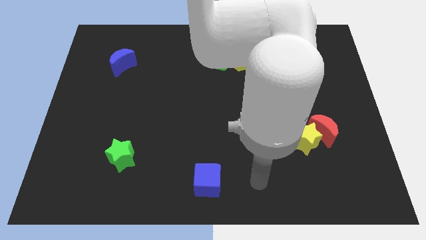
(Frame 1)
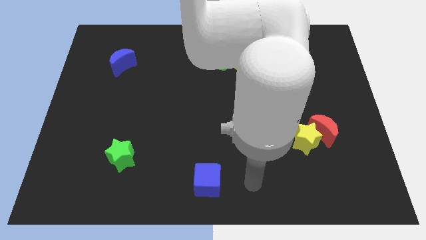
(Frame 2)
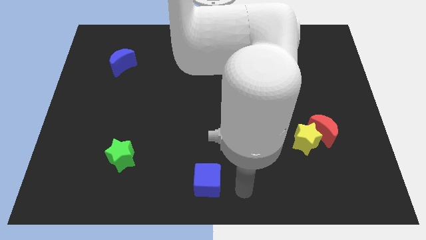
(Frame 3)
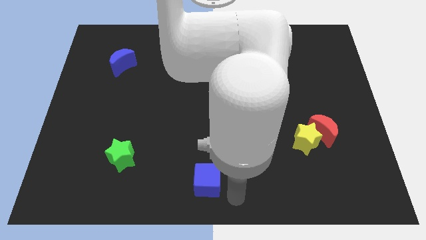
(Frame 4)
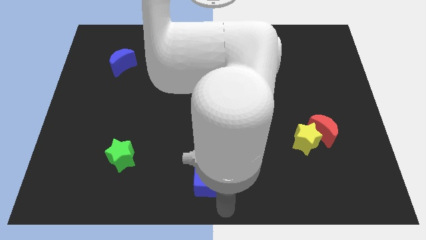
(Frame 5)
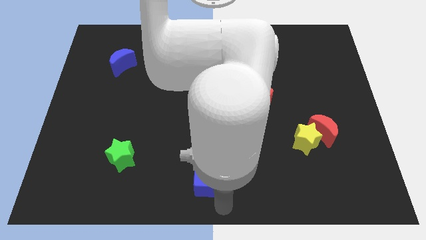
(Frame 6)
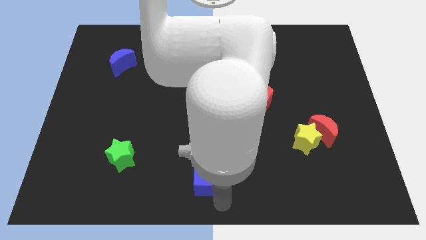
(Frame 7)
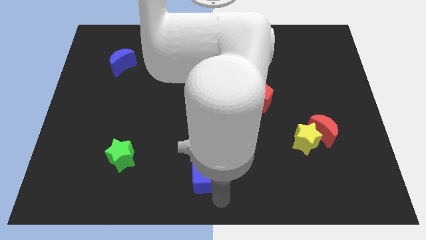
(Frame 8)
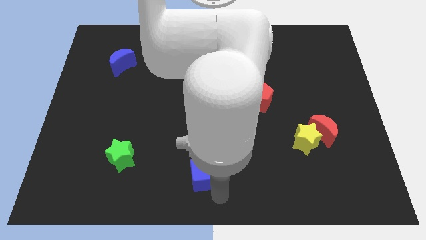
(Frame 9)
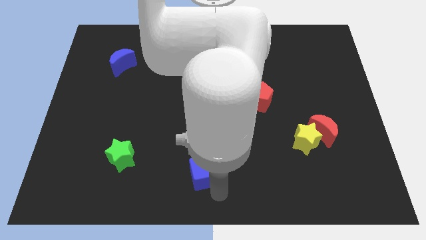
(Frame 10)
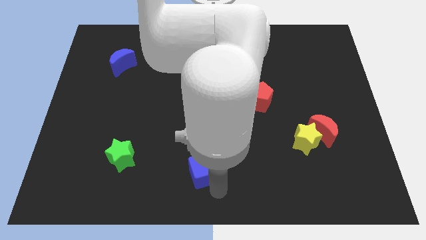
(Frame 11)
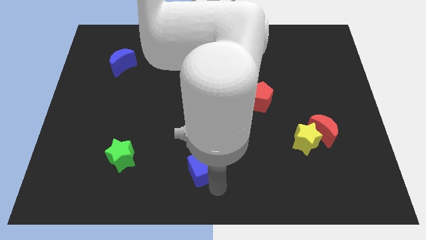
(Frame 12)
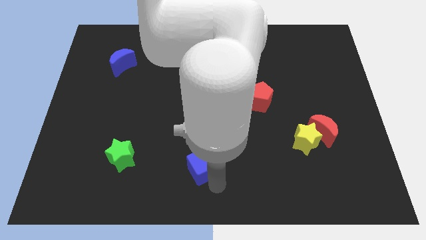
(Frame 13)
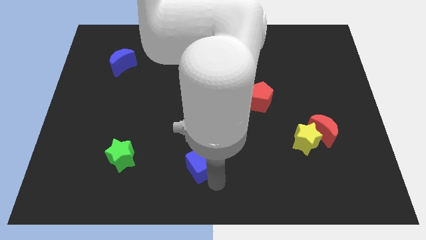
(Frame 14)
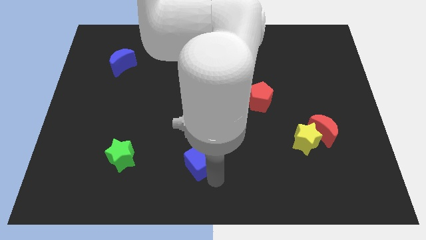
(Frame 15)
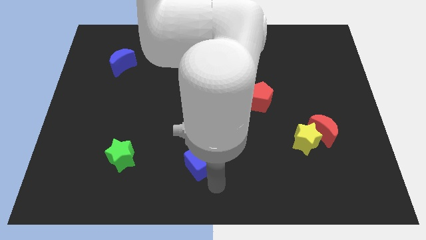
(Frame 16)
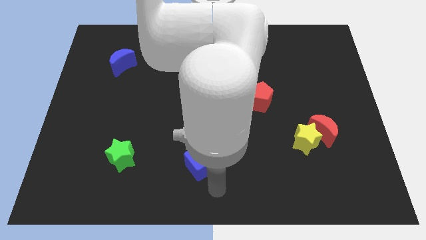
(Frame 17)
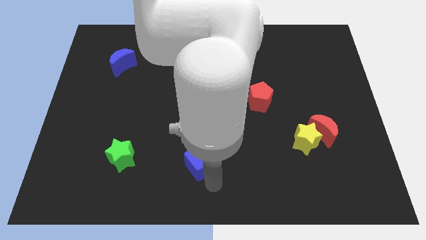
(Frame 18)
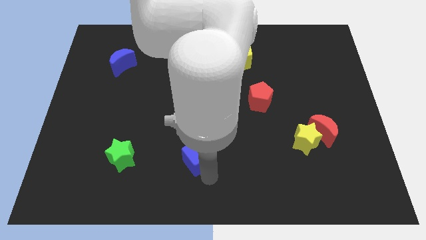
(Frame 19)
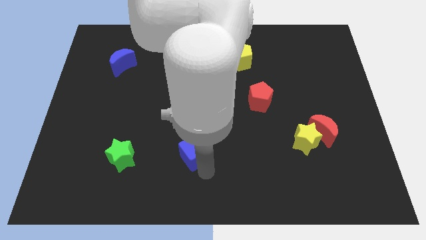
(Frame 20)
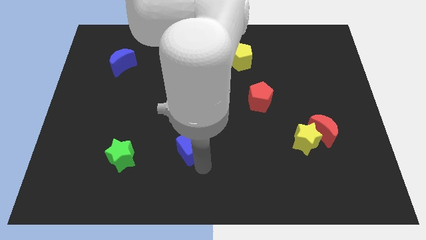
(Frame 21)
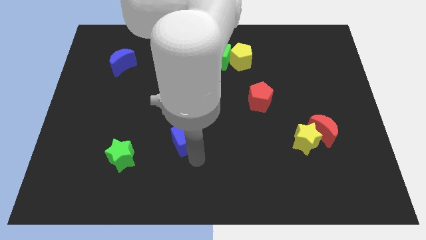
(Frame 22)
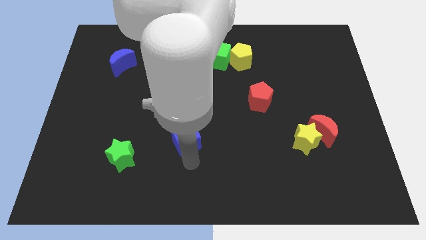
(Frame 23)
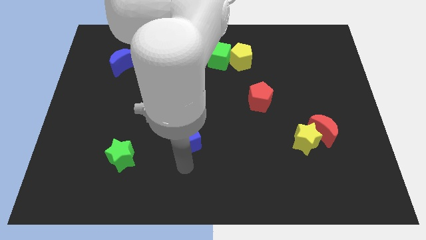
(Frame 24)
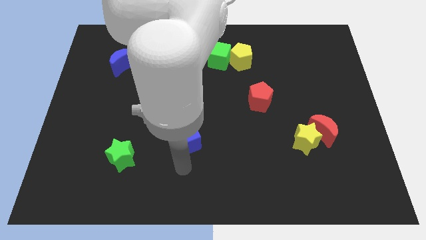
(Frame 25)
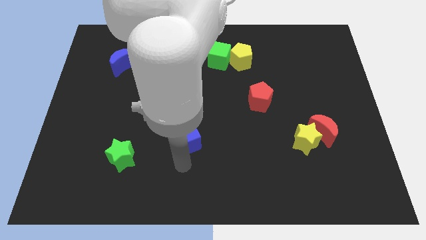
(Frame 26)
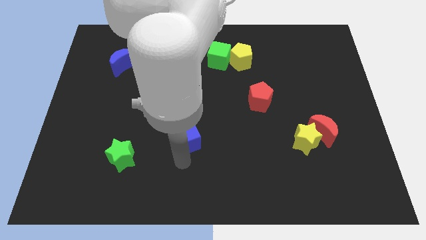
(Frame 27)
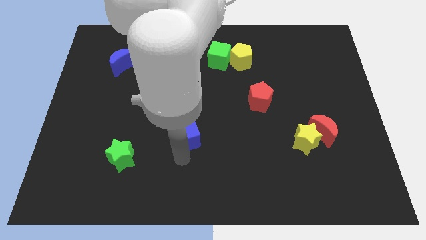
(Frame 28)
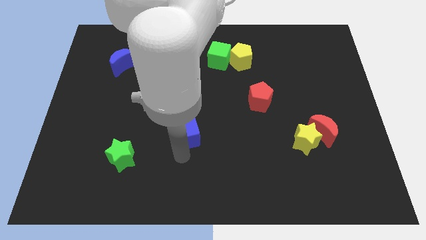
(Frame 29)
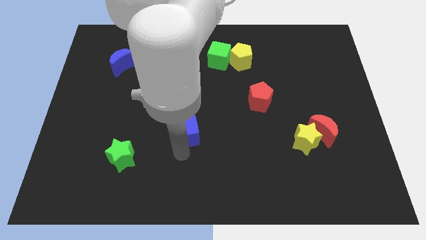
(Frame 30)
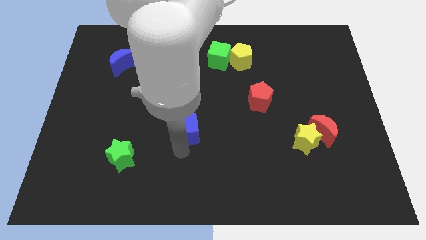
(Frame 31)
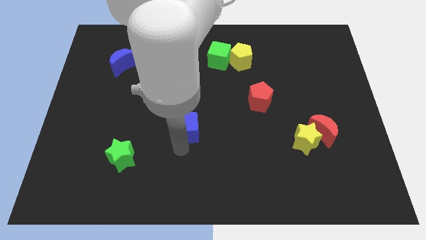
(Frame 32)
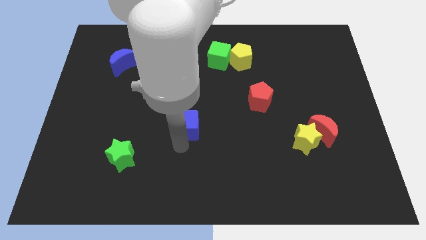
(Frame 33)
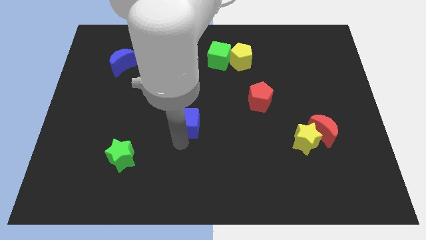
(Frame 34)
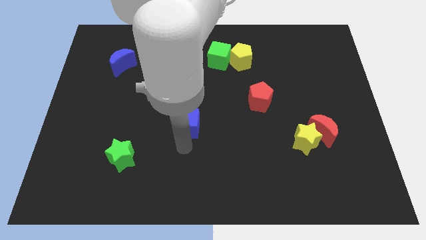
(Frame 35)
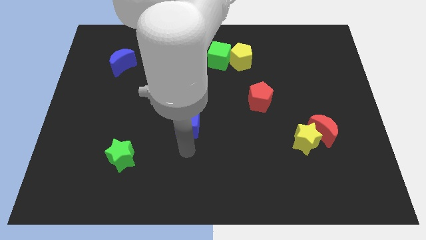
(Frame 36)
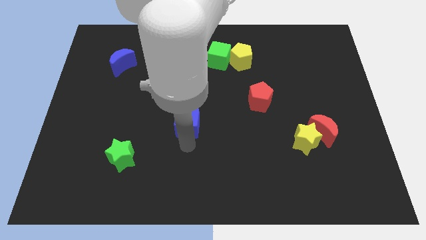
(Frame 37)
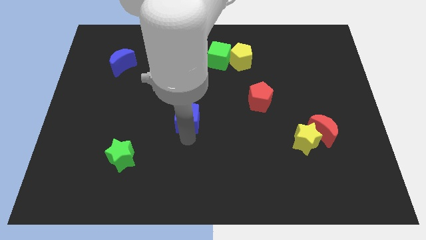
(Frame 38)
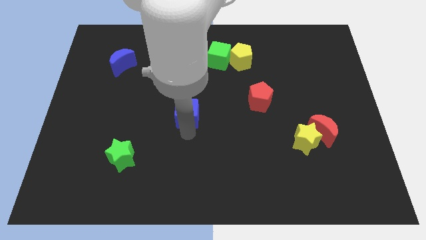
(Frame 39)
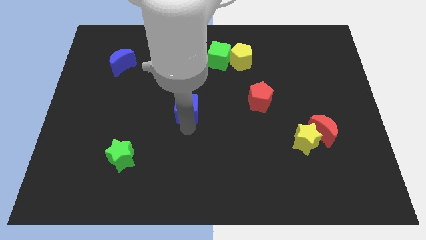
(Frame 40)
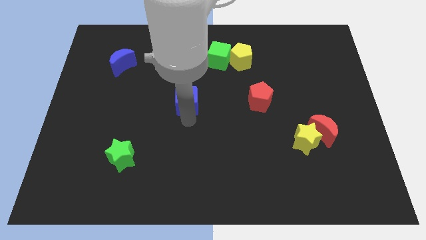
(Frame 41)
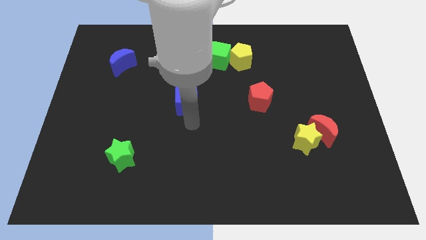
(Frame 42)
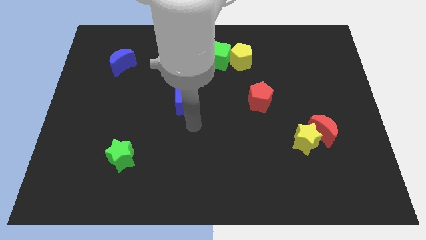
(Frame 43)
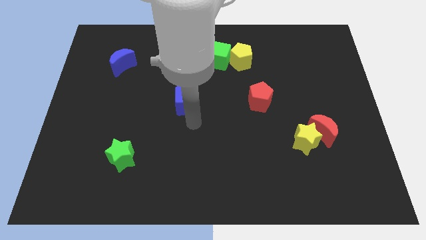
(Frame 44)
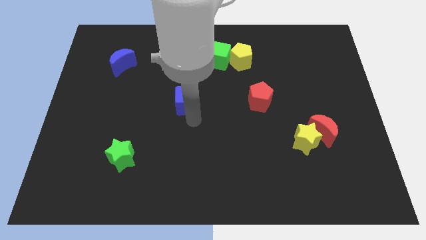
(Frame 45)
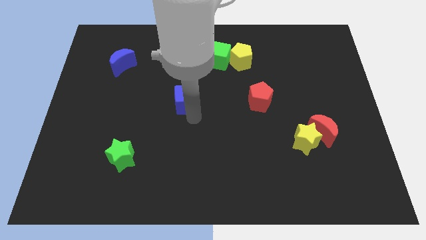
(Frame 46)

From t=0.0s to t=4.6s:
move the blue cube upwards

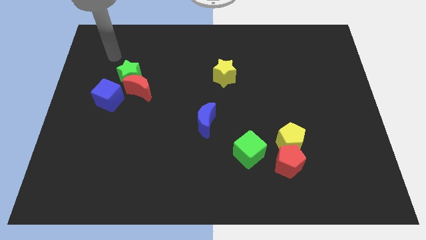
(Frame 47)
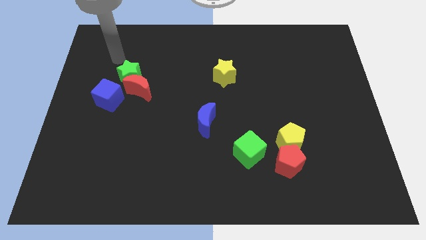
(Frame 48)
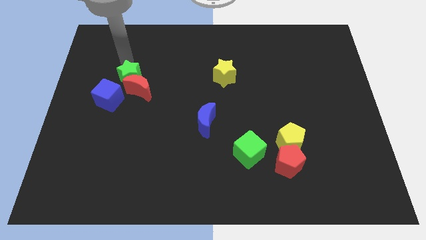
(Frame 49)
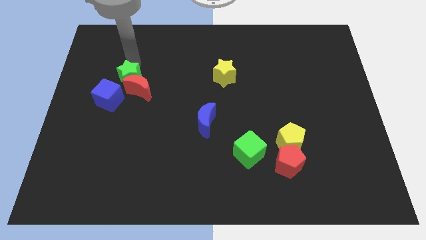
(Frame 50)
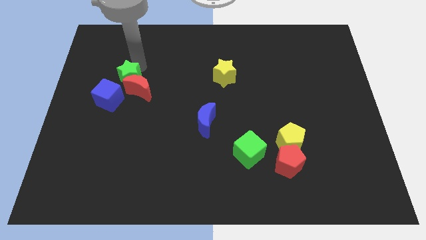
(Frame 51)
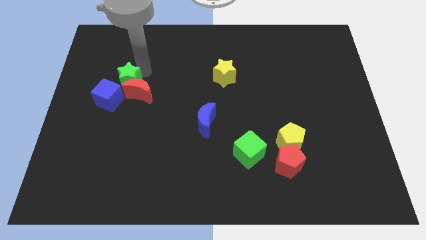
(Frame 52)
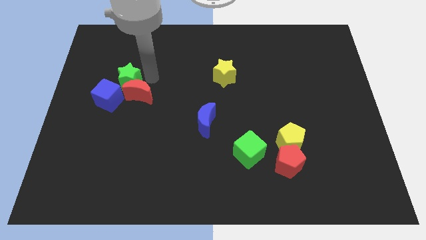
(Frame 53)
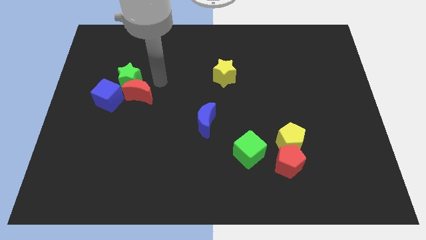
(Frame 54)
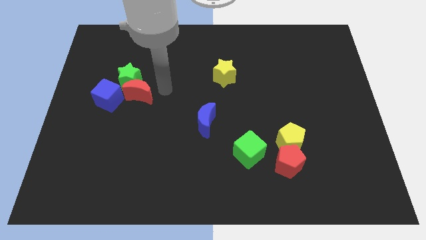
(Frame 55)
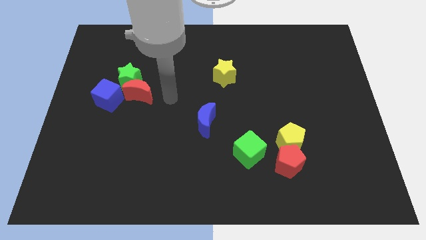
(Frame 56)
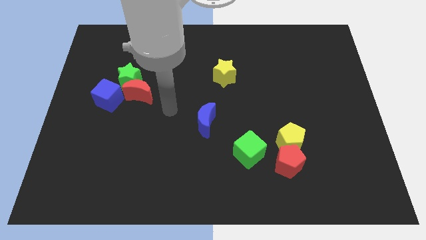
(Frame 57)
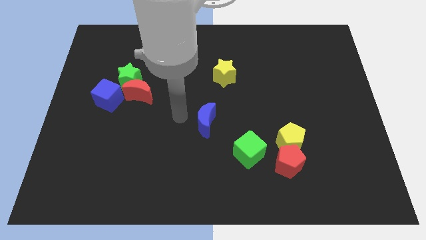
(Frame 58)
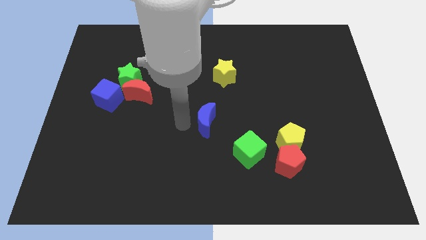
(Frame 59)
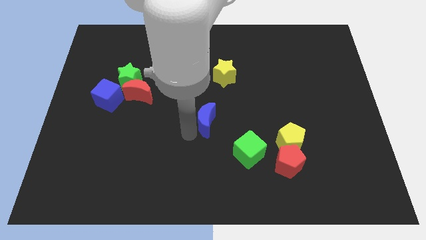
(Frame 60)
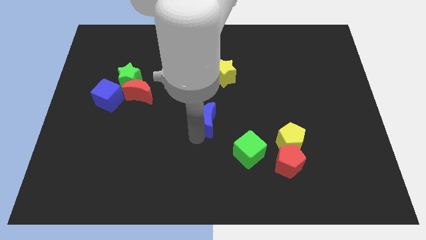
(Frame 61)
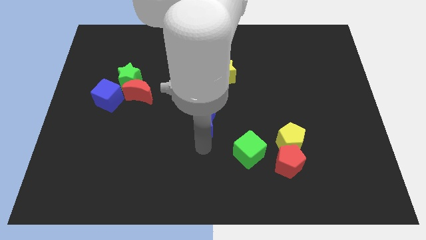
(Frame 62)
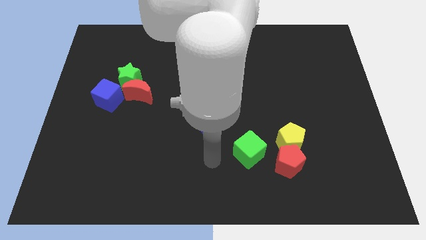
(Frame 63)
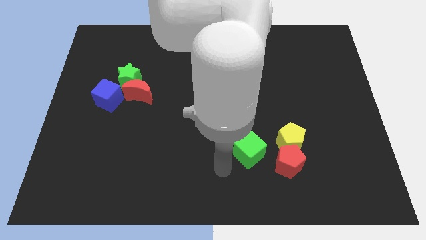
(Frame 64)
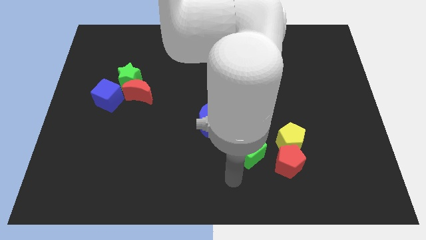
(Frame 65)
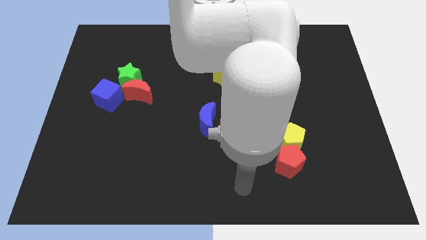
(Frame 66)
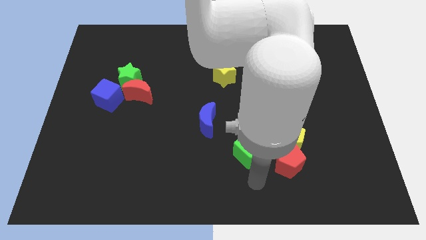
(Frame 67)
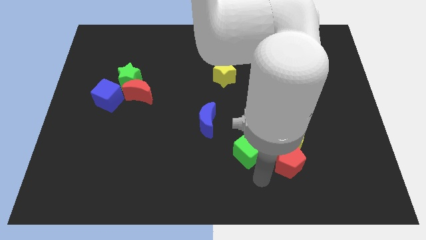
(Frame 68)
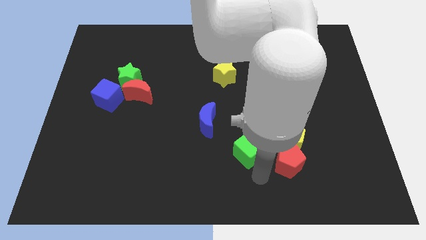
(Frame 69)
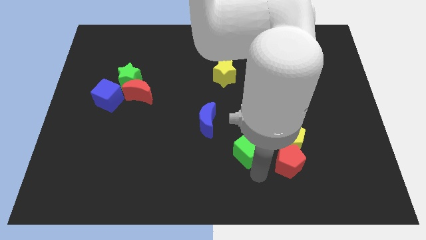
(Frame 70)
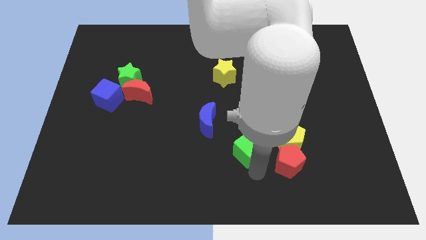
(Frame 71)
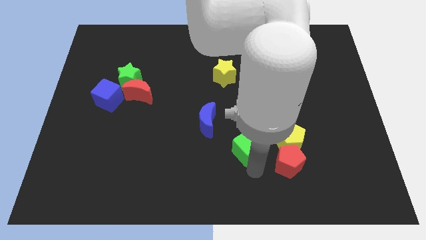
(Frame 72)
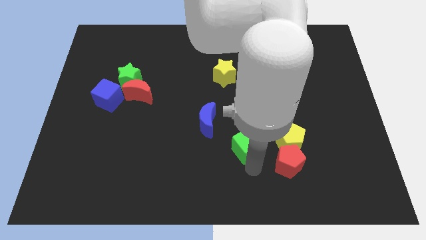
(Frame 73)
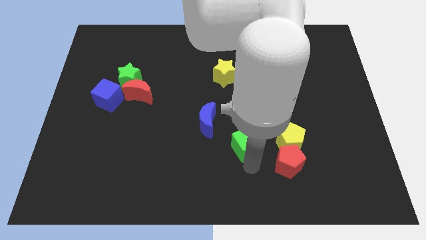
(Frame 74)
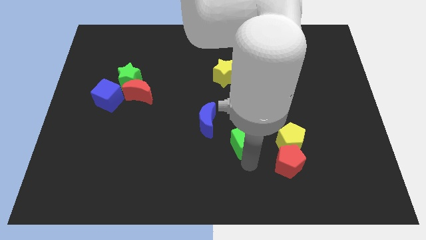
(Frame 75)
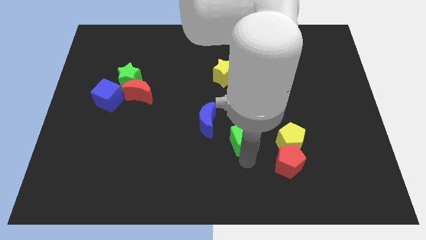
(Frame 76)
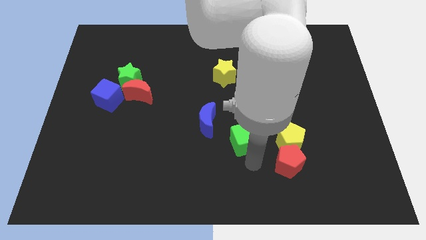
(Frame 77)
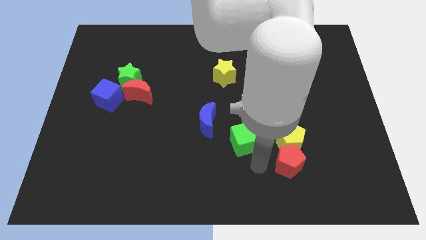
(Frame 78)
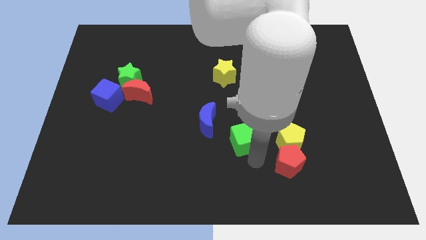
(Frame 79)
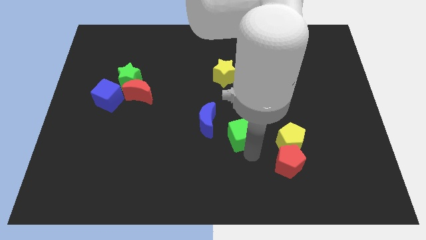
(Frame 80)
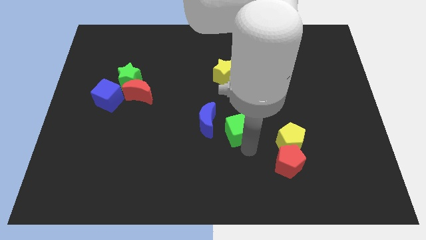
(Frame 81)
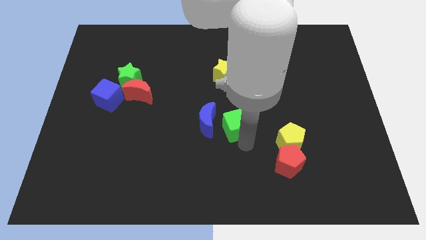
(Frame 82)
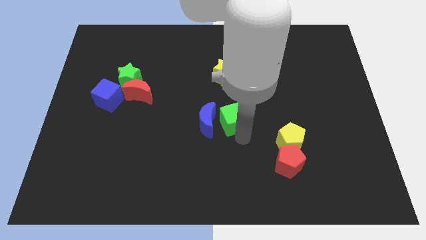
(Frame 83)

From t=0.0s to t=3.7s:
slightly push the green cube upwards and to the left diagonally
